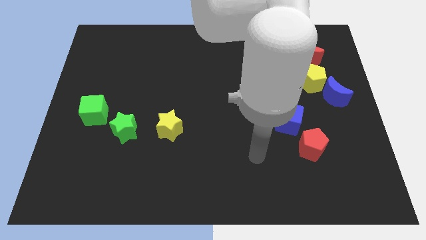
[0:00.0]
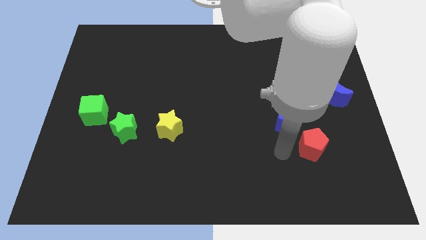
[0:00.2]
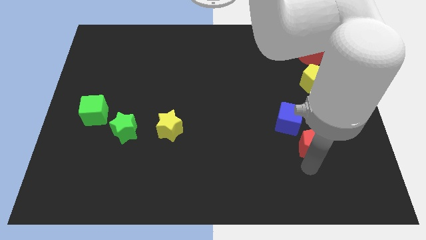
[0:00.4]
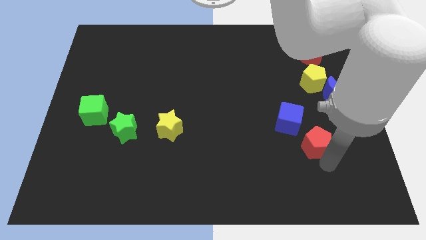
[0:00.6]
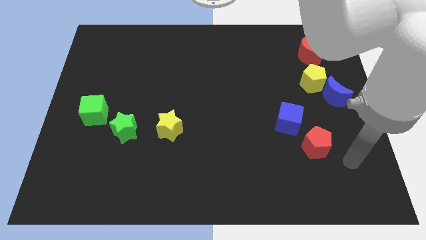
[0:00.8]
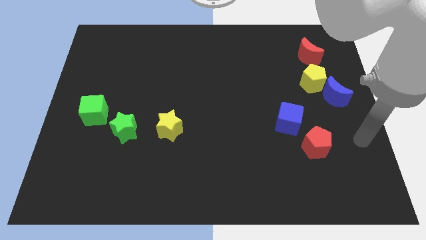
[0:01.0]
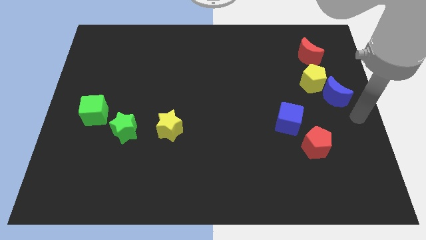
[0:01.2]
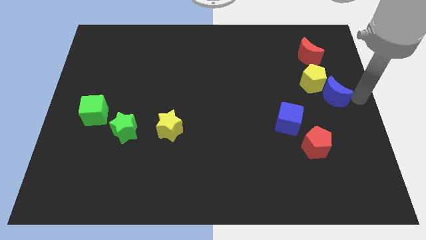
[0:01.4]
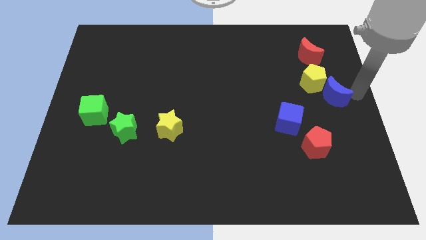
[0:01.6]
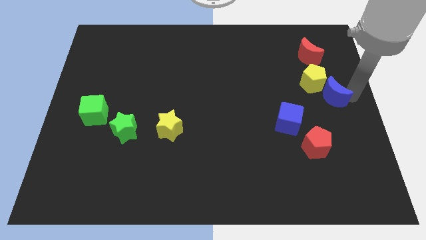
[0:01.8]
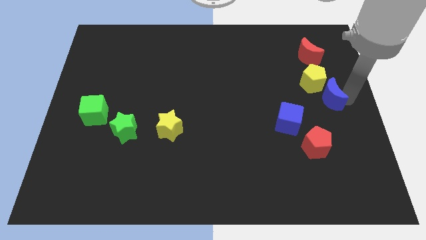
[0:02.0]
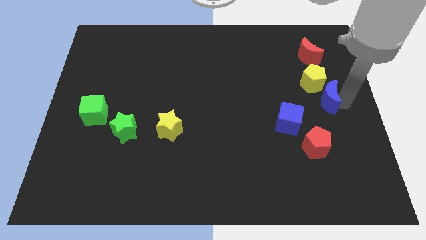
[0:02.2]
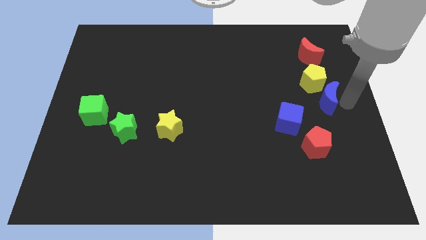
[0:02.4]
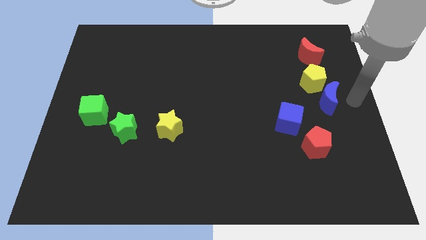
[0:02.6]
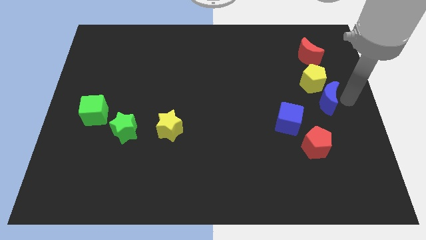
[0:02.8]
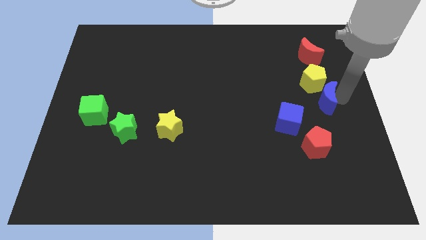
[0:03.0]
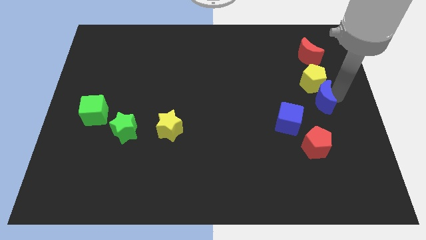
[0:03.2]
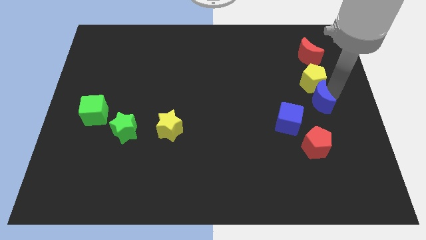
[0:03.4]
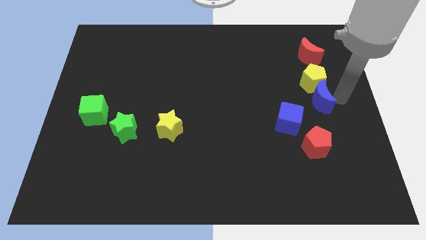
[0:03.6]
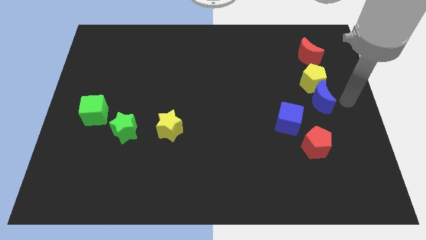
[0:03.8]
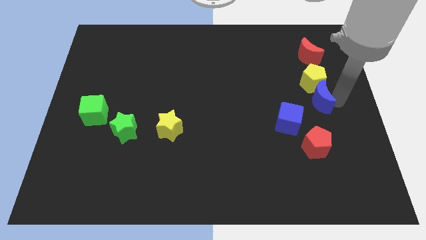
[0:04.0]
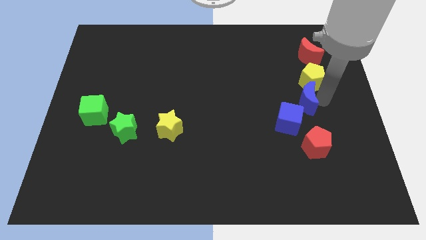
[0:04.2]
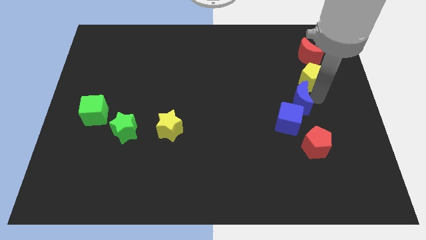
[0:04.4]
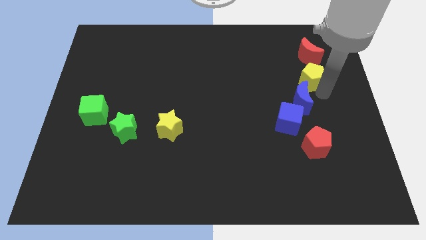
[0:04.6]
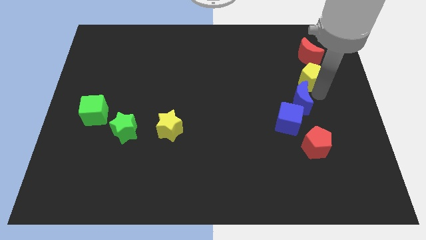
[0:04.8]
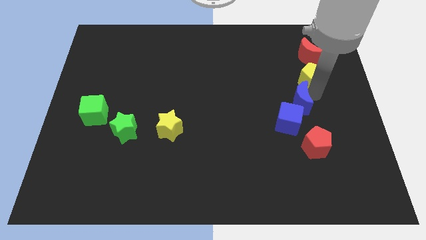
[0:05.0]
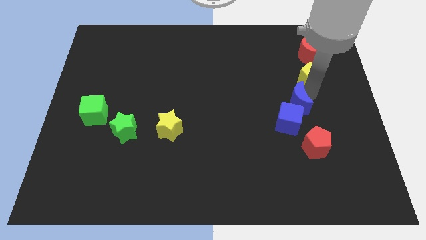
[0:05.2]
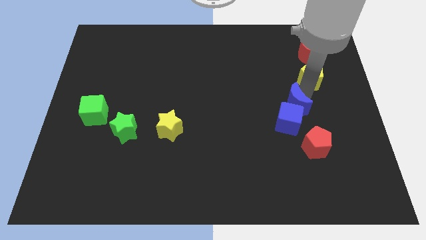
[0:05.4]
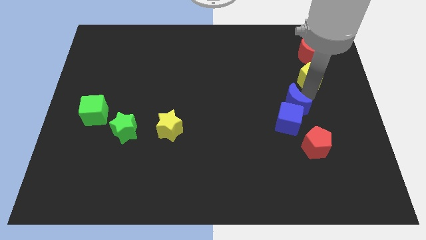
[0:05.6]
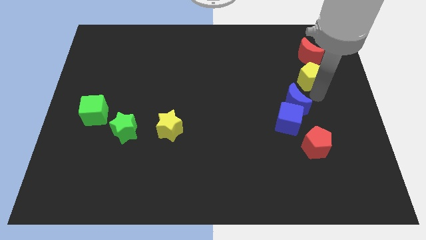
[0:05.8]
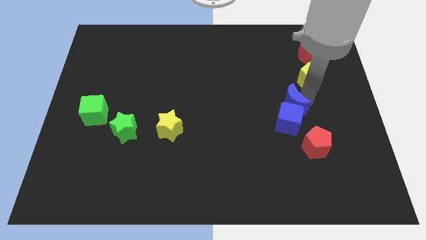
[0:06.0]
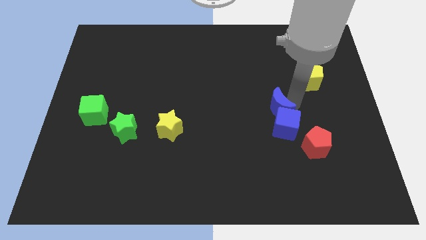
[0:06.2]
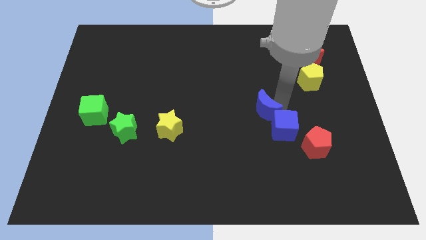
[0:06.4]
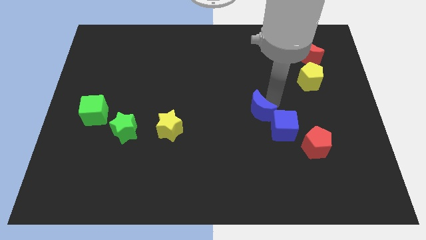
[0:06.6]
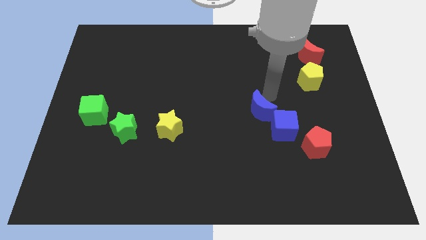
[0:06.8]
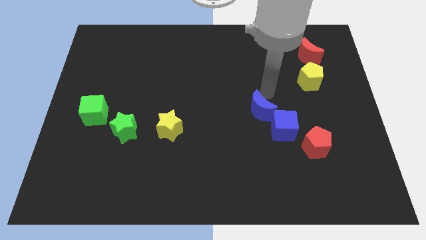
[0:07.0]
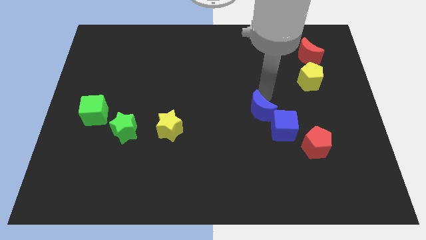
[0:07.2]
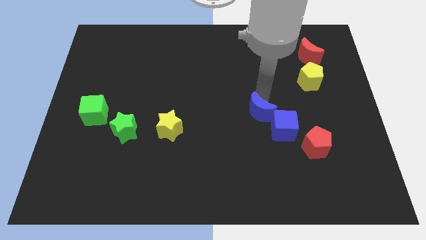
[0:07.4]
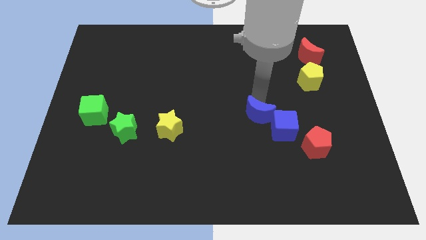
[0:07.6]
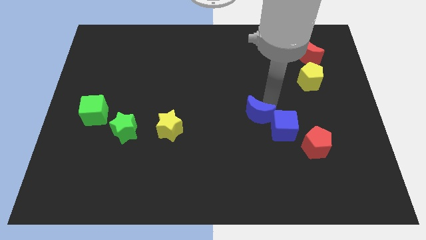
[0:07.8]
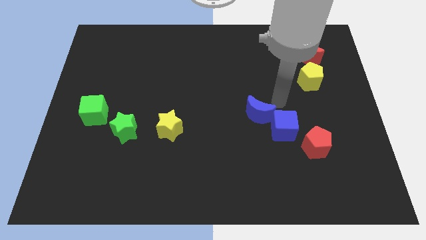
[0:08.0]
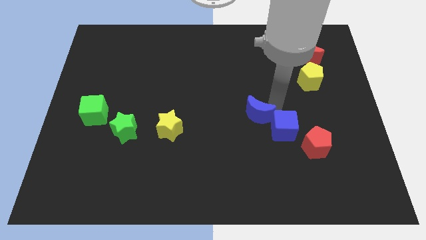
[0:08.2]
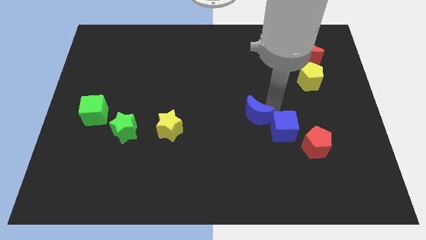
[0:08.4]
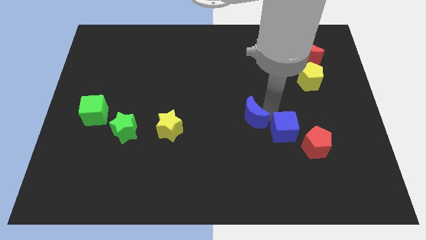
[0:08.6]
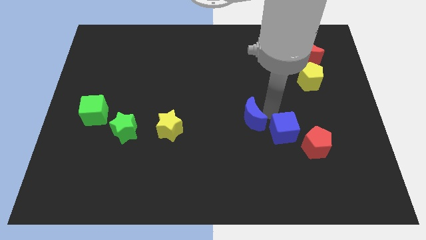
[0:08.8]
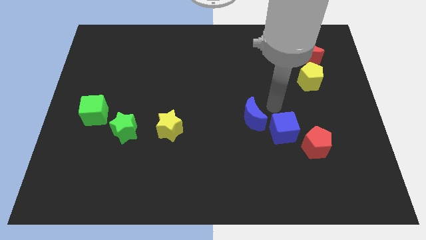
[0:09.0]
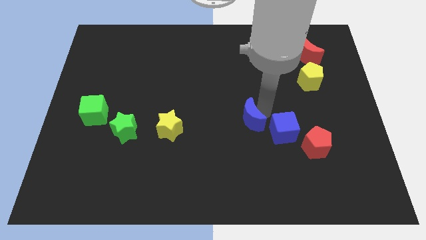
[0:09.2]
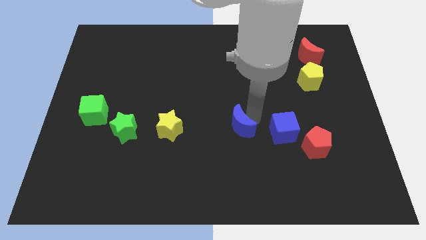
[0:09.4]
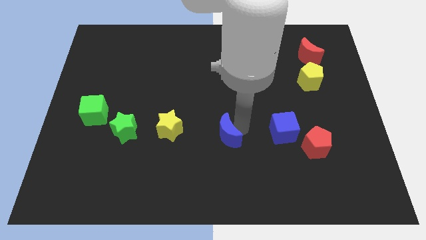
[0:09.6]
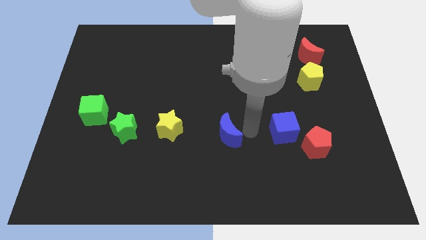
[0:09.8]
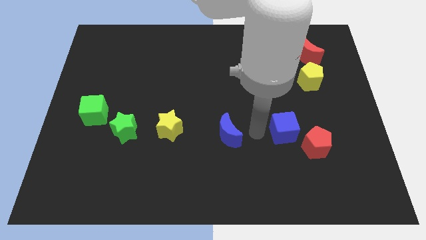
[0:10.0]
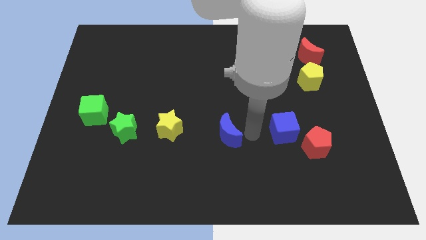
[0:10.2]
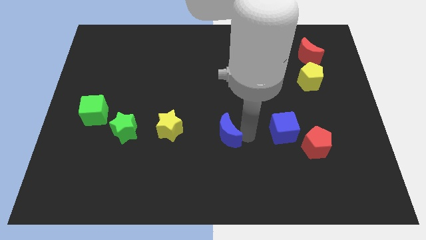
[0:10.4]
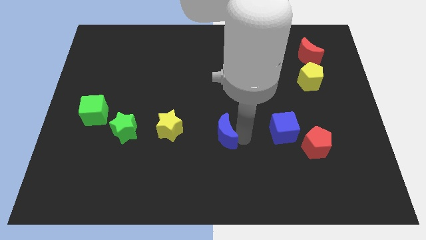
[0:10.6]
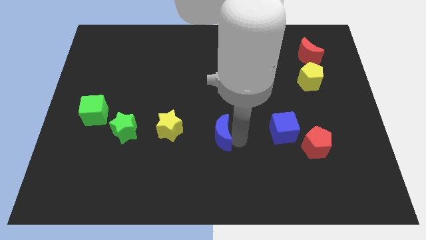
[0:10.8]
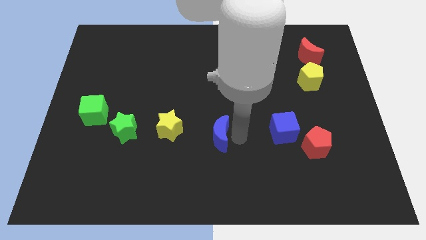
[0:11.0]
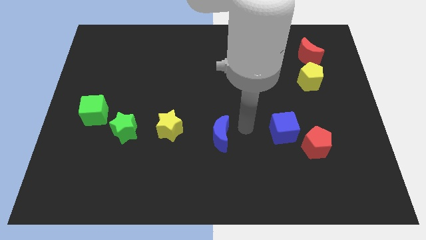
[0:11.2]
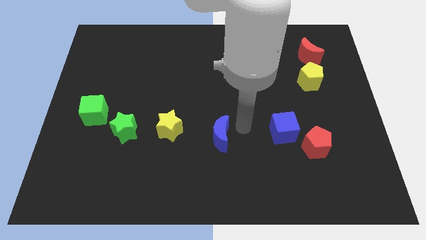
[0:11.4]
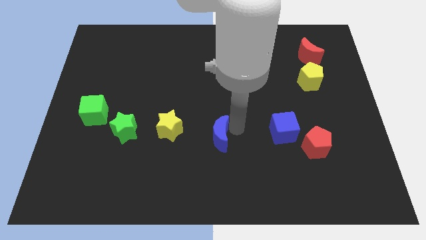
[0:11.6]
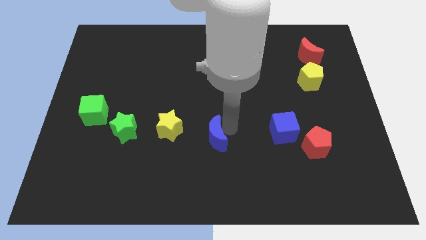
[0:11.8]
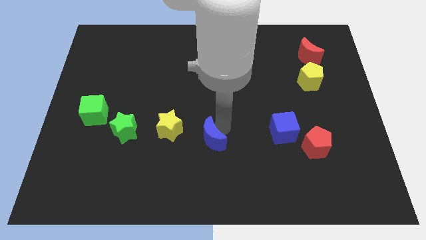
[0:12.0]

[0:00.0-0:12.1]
push the blue moon to the bottom right of the yellow star

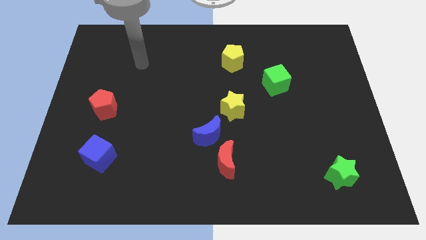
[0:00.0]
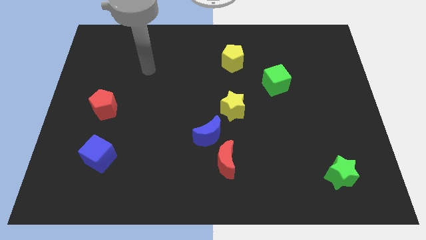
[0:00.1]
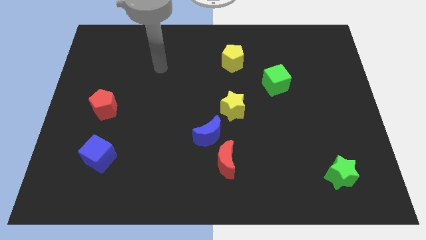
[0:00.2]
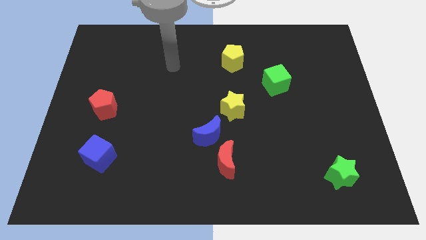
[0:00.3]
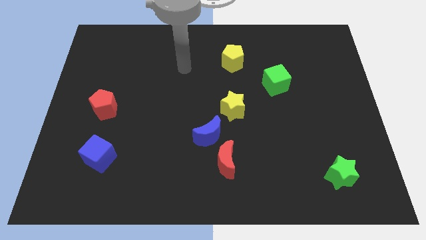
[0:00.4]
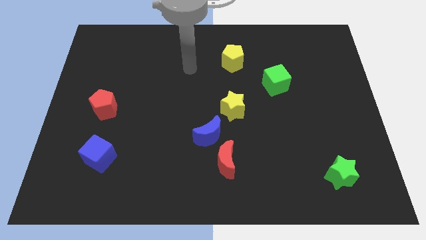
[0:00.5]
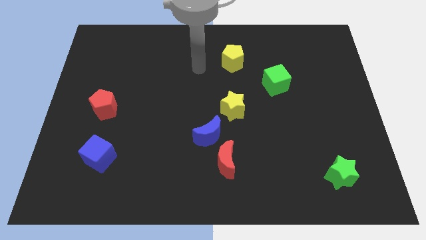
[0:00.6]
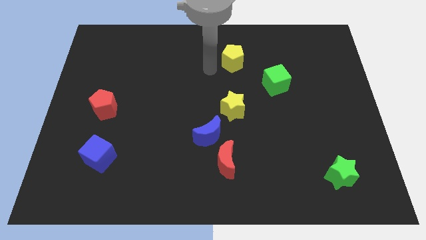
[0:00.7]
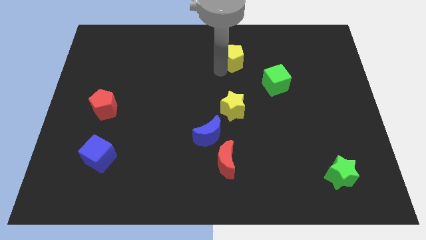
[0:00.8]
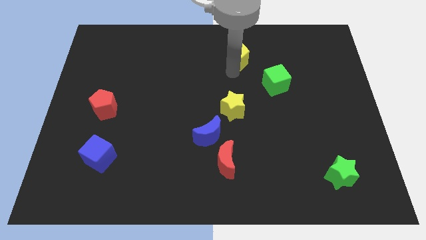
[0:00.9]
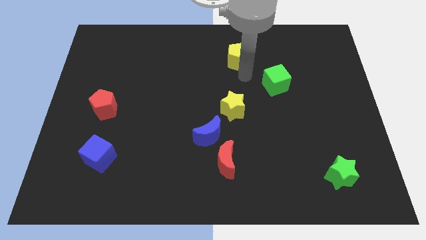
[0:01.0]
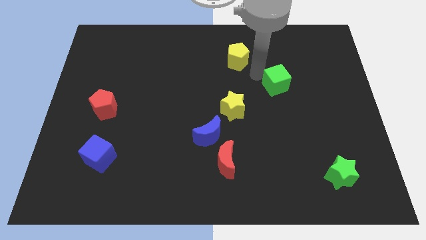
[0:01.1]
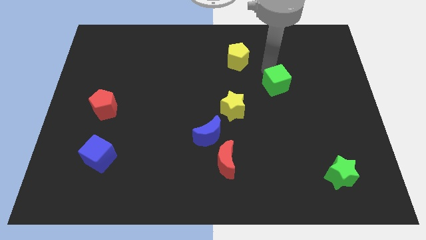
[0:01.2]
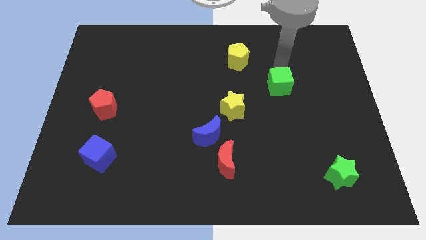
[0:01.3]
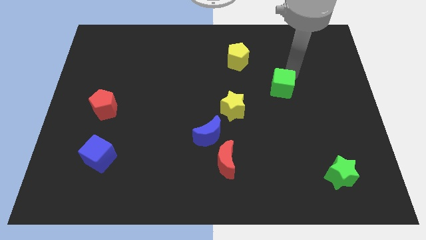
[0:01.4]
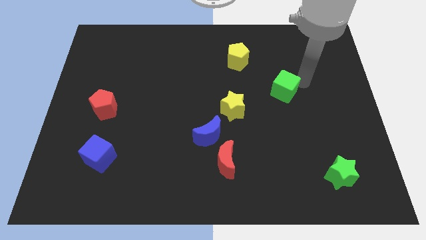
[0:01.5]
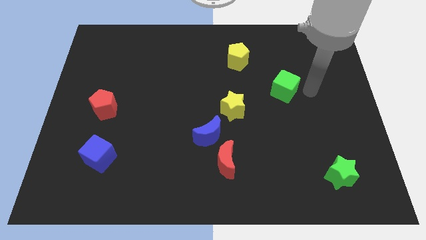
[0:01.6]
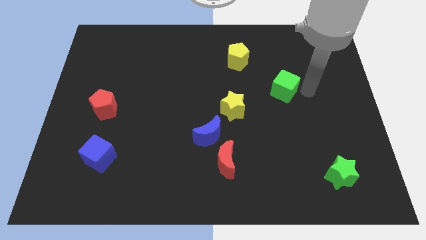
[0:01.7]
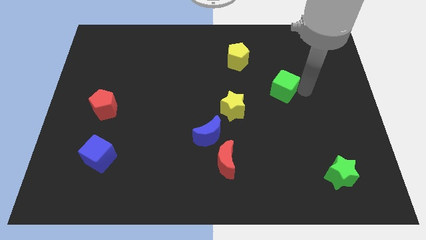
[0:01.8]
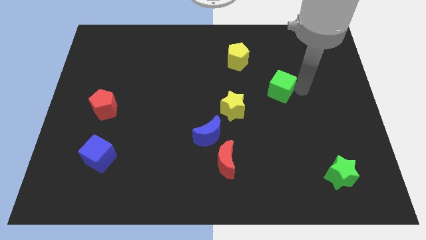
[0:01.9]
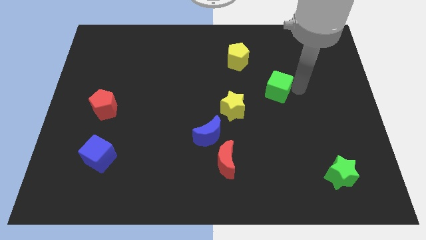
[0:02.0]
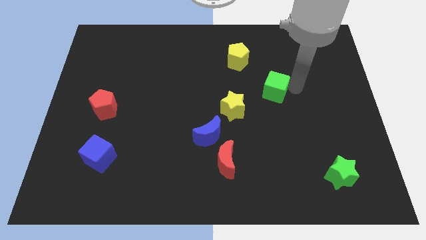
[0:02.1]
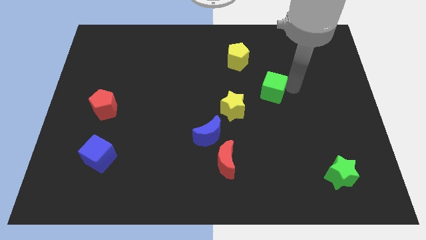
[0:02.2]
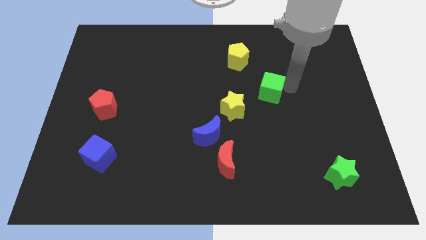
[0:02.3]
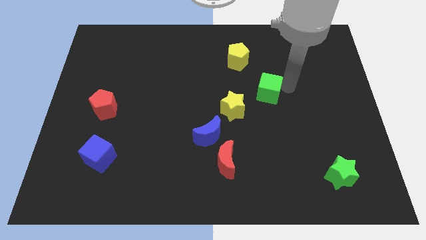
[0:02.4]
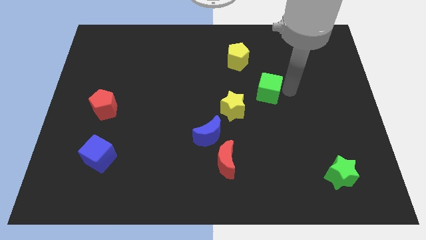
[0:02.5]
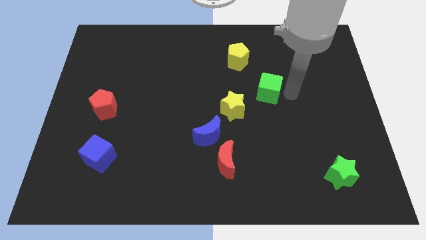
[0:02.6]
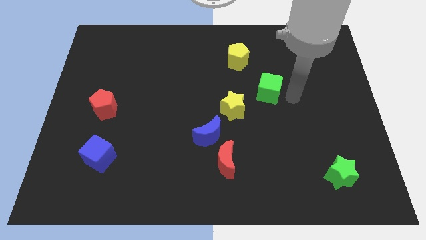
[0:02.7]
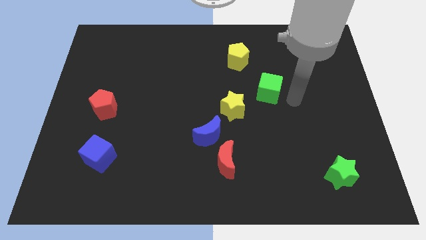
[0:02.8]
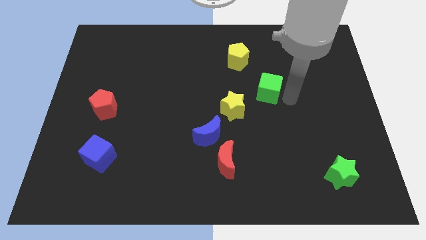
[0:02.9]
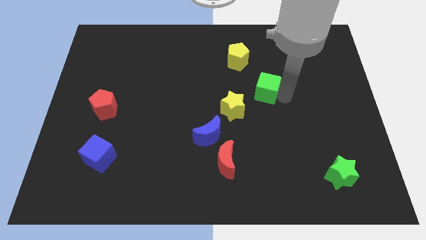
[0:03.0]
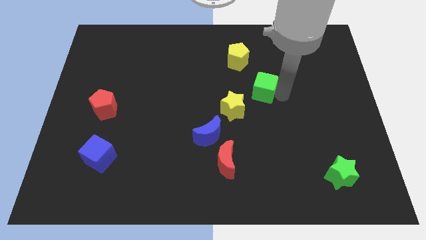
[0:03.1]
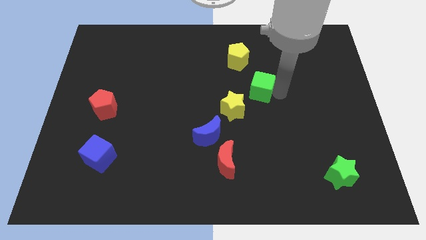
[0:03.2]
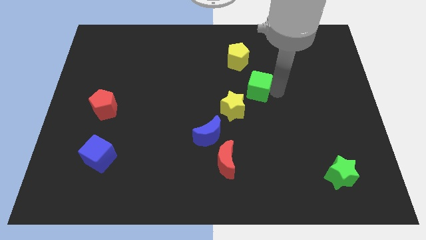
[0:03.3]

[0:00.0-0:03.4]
put the green cube below the yellow pentagon
